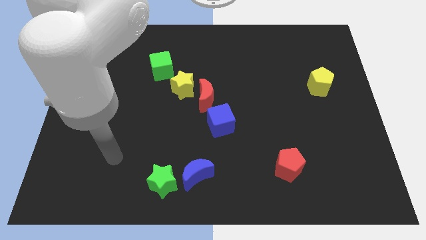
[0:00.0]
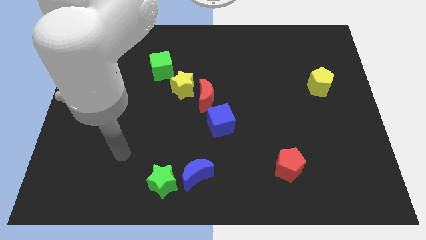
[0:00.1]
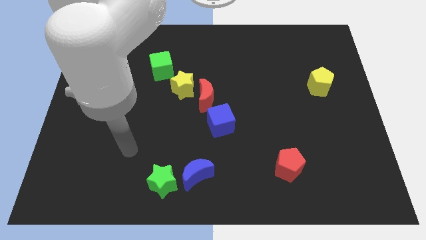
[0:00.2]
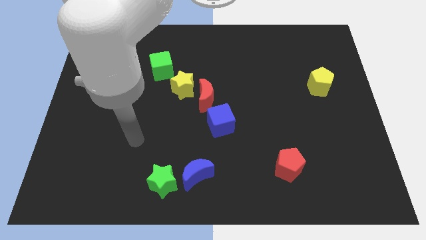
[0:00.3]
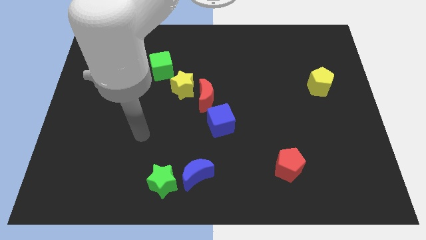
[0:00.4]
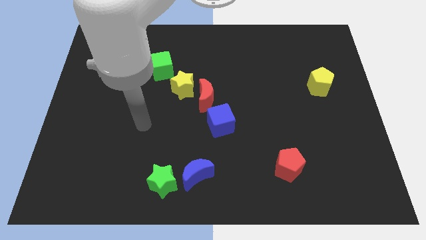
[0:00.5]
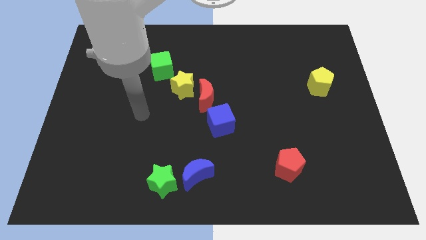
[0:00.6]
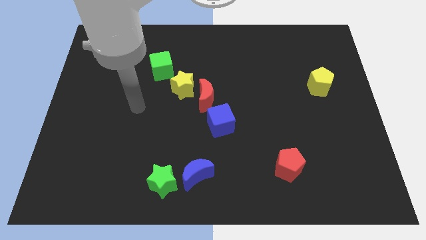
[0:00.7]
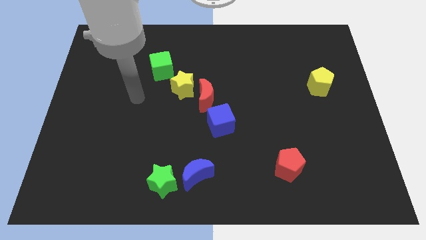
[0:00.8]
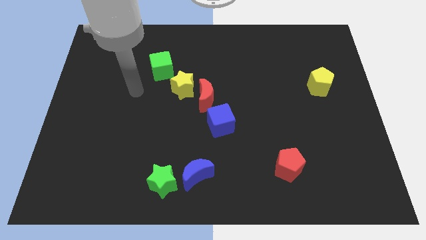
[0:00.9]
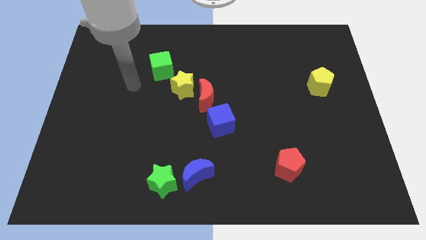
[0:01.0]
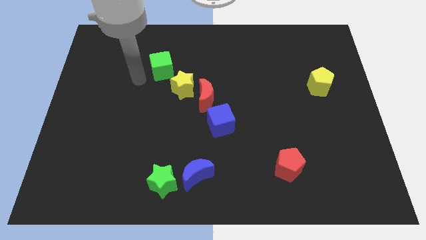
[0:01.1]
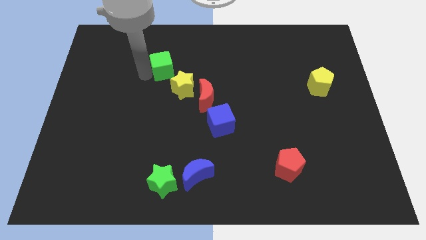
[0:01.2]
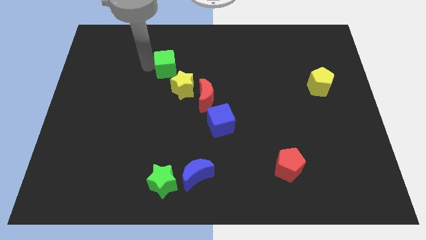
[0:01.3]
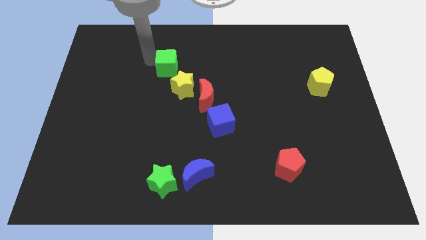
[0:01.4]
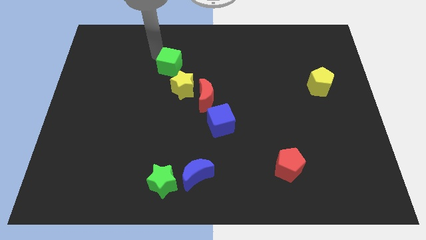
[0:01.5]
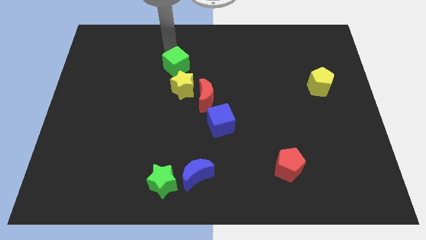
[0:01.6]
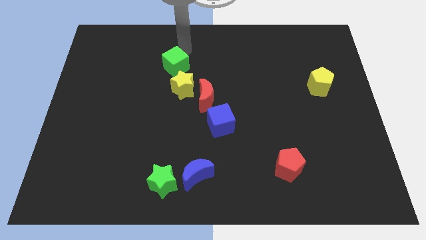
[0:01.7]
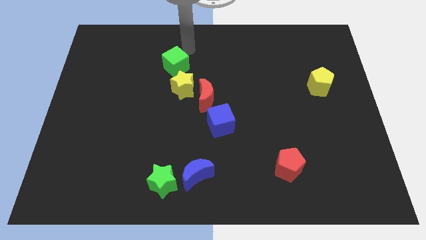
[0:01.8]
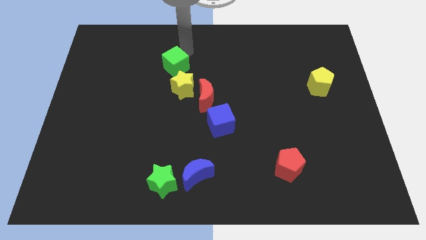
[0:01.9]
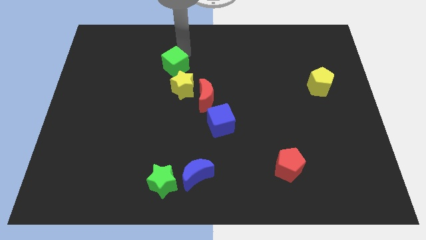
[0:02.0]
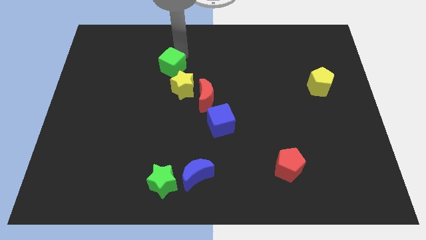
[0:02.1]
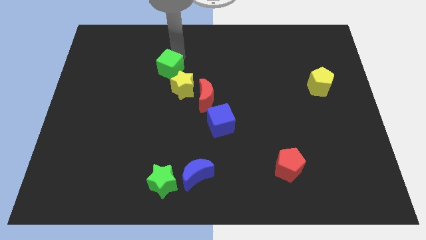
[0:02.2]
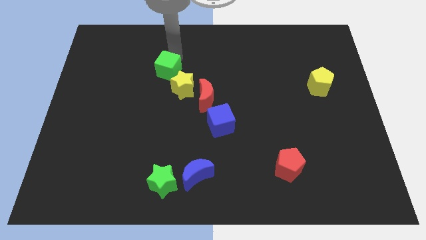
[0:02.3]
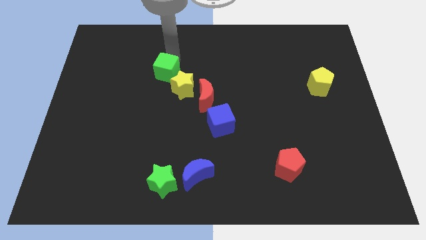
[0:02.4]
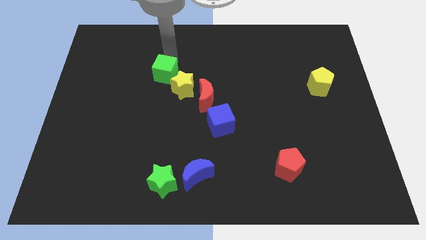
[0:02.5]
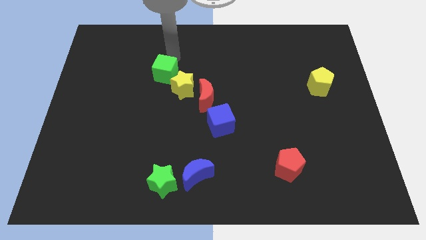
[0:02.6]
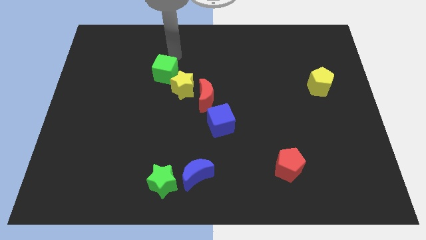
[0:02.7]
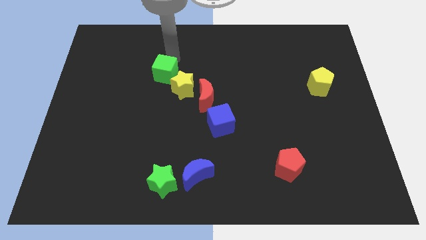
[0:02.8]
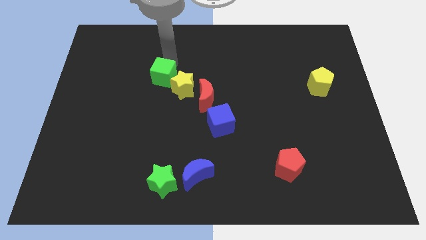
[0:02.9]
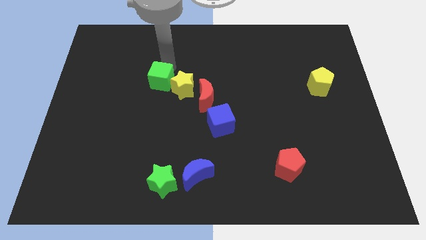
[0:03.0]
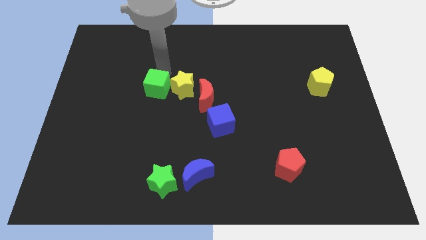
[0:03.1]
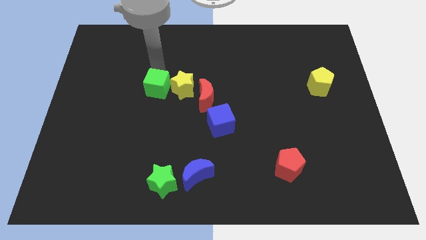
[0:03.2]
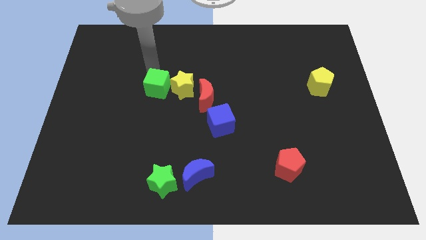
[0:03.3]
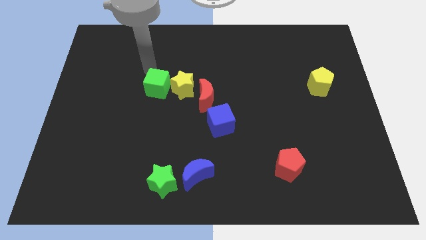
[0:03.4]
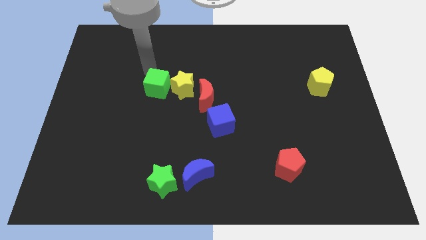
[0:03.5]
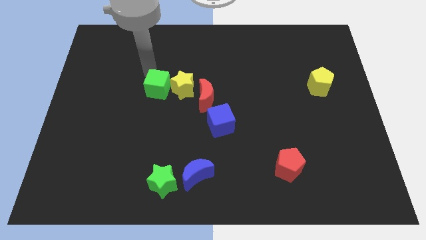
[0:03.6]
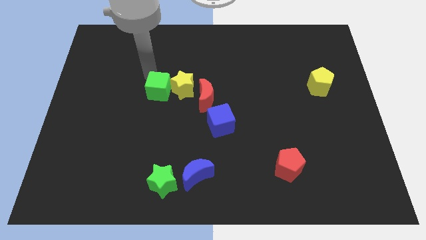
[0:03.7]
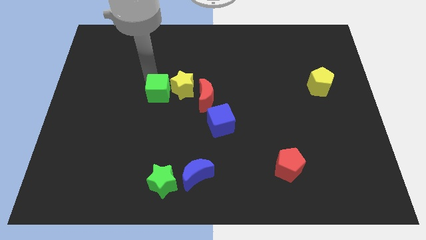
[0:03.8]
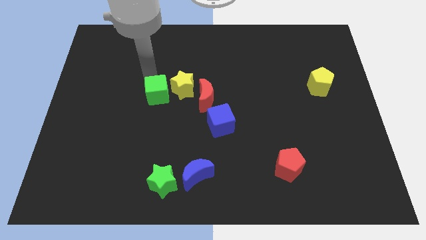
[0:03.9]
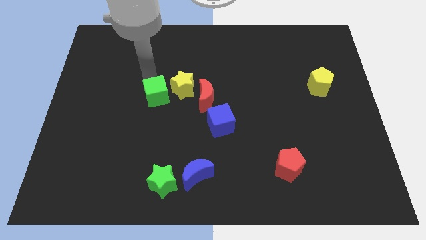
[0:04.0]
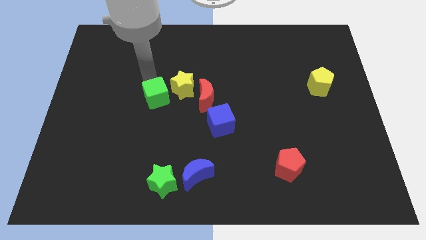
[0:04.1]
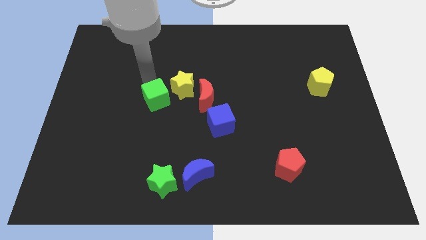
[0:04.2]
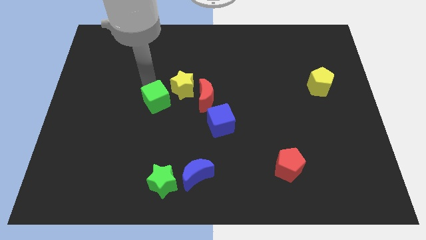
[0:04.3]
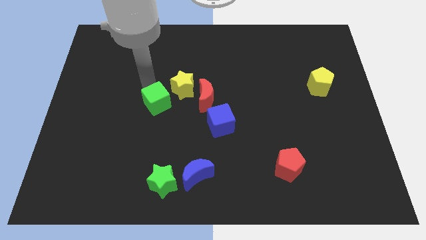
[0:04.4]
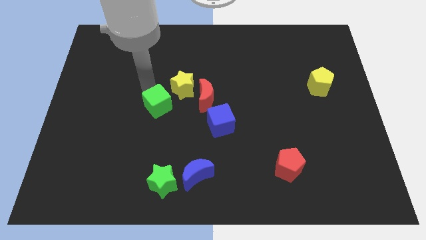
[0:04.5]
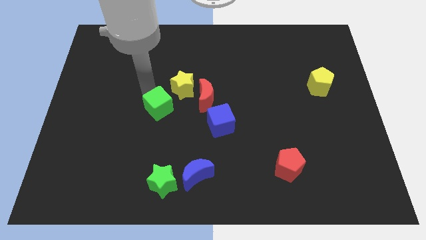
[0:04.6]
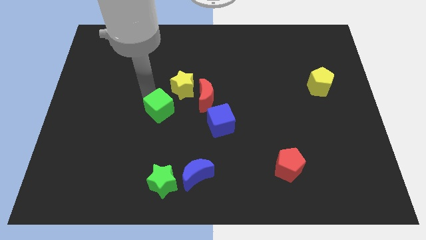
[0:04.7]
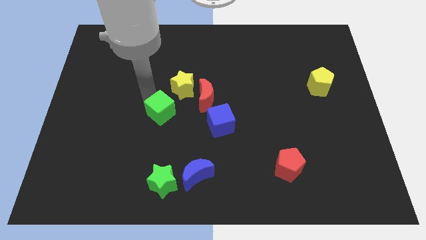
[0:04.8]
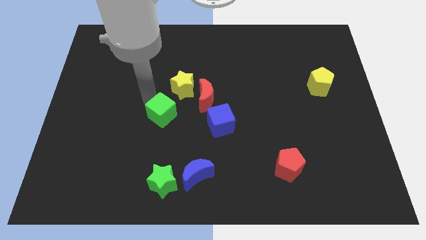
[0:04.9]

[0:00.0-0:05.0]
put the green cube to the bottom left of the red moon

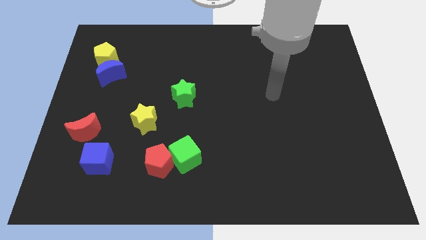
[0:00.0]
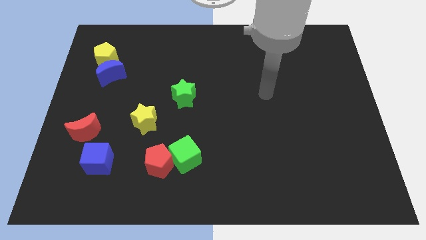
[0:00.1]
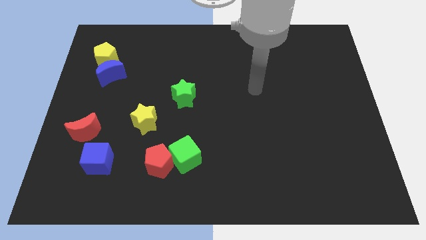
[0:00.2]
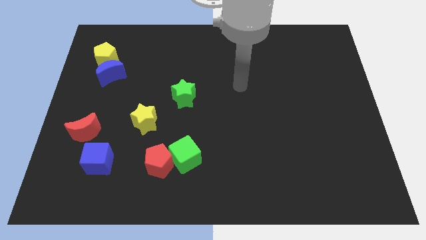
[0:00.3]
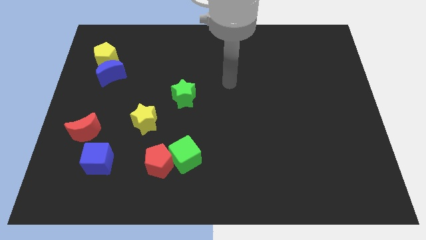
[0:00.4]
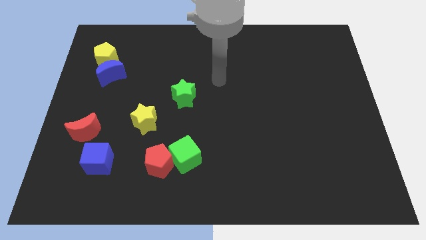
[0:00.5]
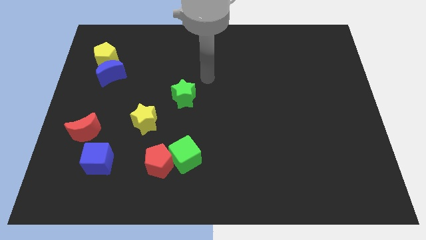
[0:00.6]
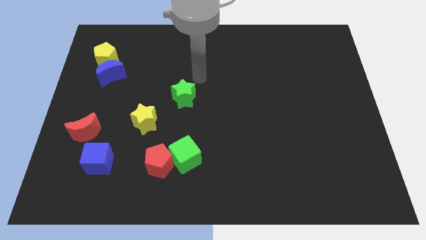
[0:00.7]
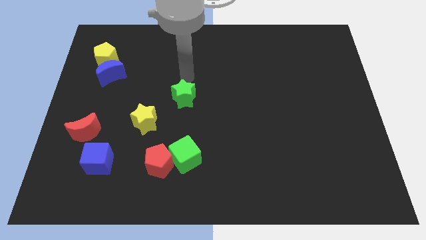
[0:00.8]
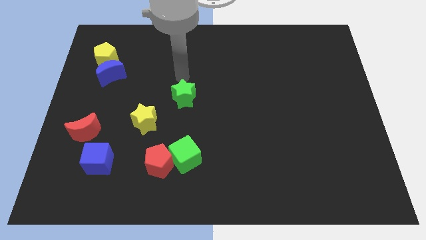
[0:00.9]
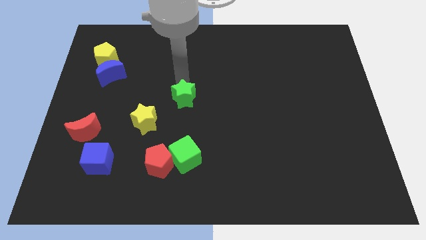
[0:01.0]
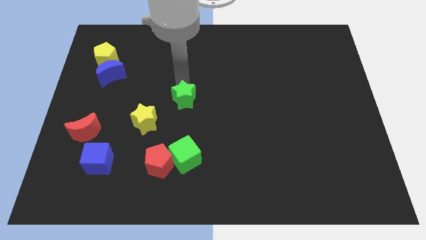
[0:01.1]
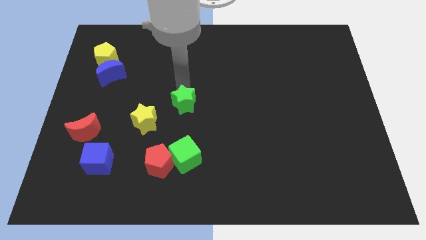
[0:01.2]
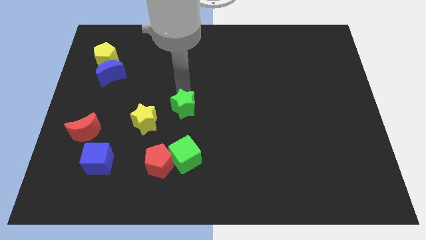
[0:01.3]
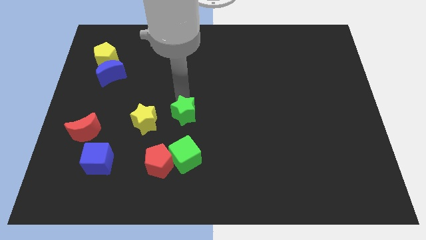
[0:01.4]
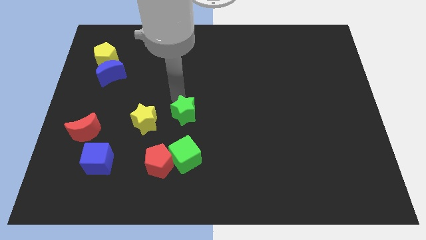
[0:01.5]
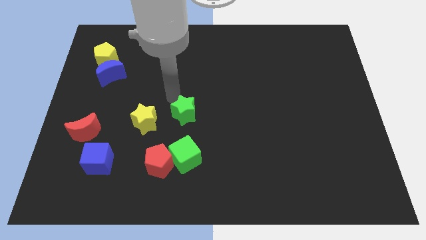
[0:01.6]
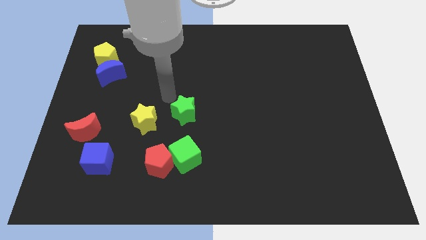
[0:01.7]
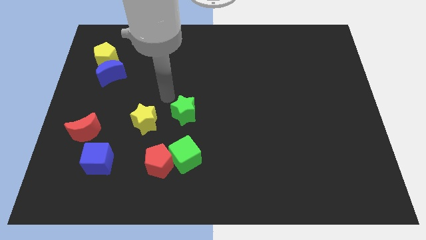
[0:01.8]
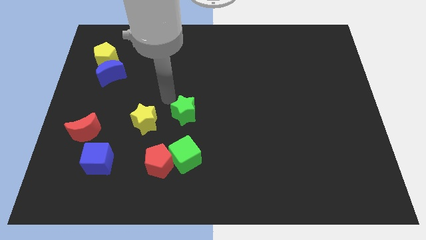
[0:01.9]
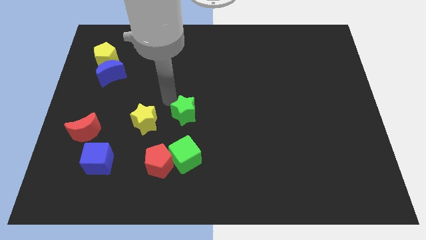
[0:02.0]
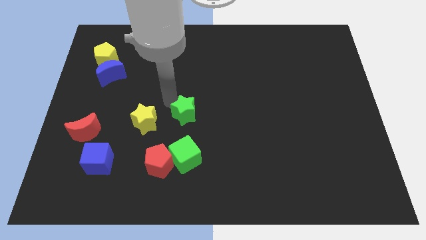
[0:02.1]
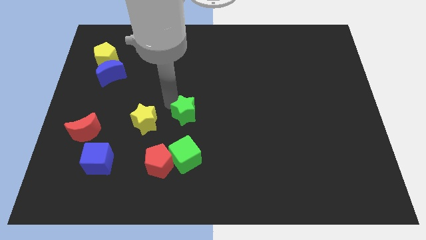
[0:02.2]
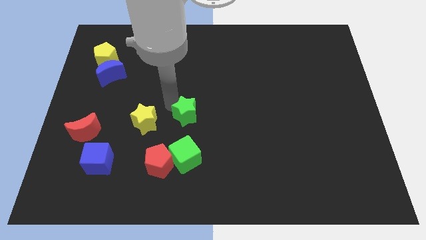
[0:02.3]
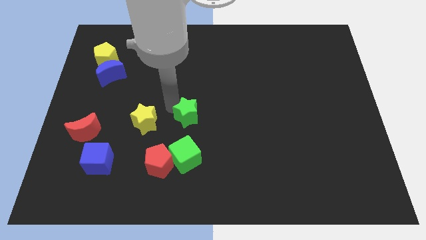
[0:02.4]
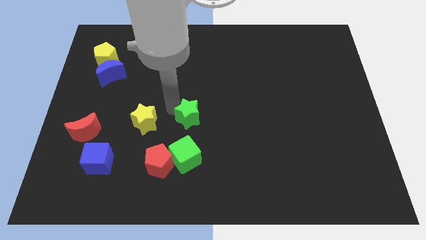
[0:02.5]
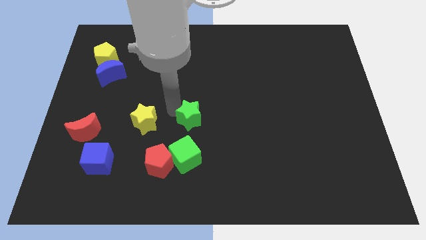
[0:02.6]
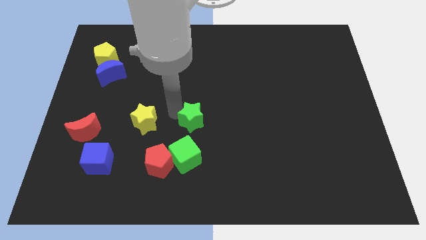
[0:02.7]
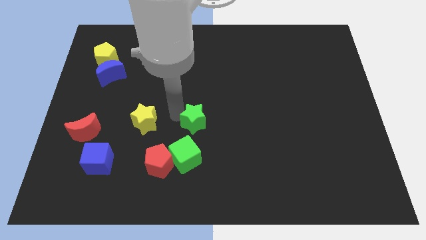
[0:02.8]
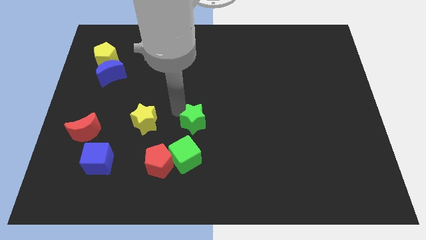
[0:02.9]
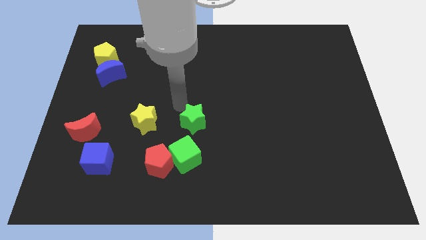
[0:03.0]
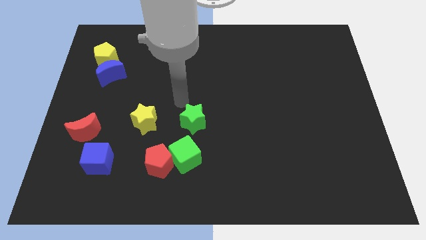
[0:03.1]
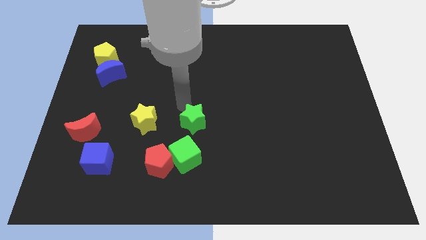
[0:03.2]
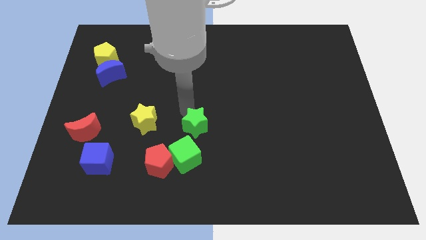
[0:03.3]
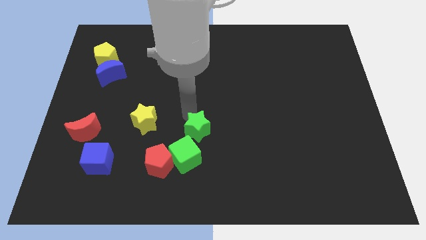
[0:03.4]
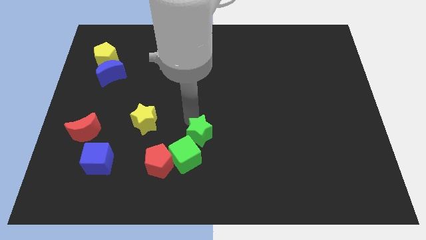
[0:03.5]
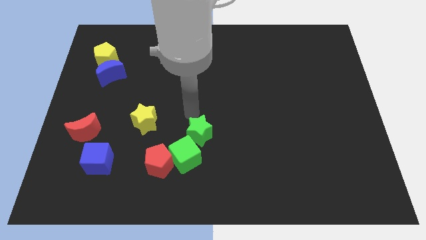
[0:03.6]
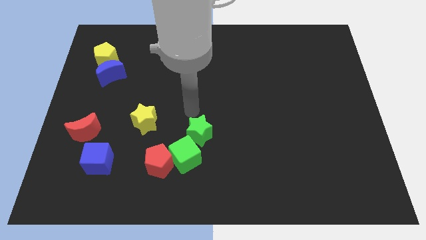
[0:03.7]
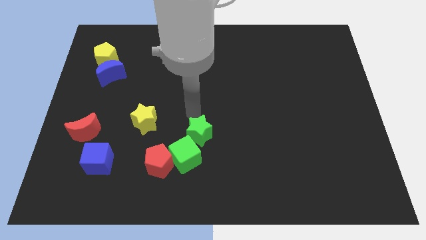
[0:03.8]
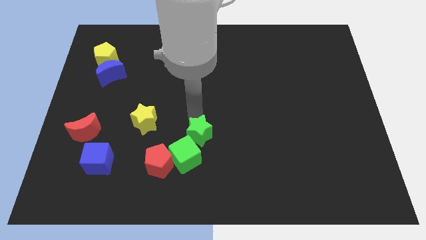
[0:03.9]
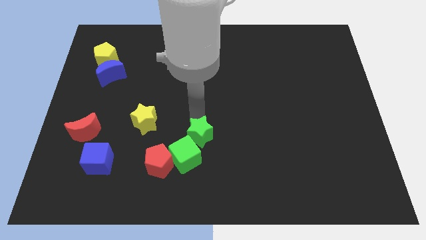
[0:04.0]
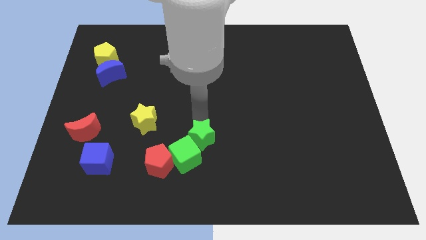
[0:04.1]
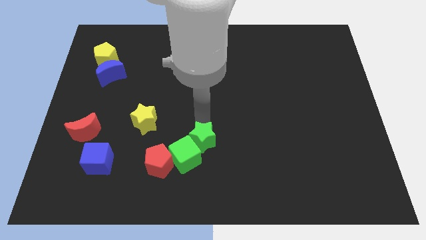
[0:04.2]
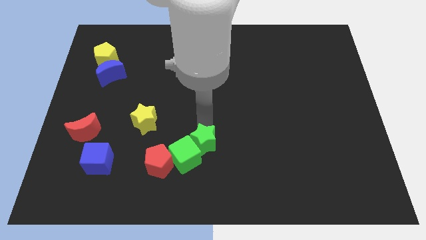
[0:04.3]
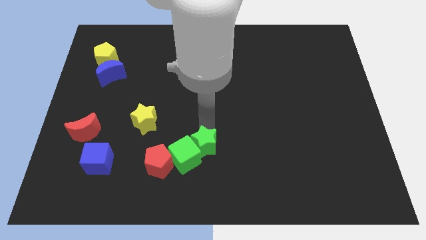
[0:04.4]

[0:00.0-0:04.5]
slide the green star just right of the red pentagon
